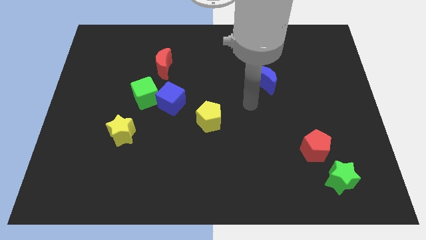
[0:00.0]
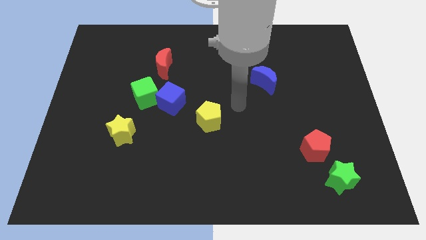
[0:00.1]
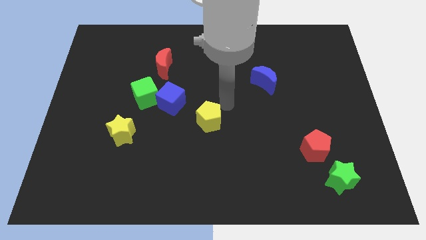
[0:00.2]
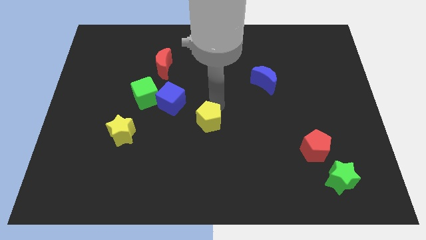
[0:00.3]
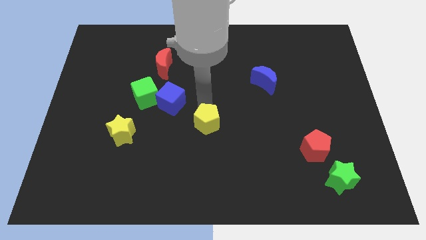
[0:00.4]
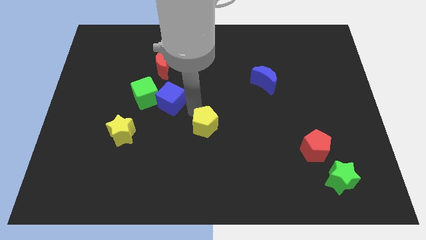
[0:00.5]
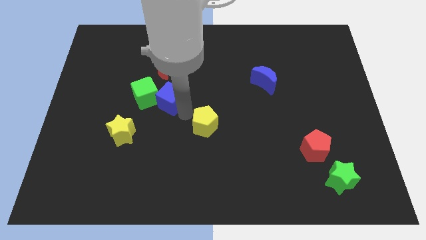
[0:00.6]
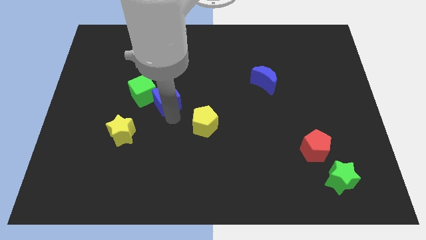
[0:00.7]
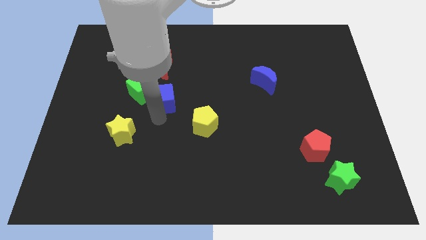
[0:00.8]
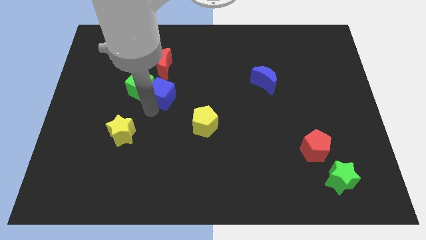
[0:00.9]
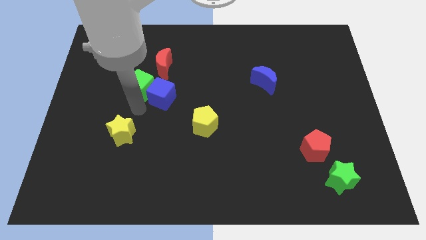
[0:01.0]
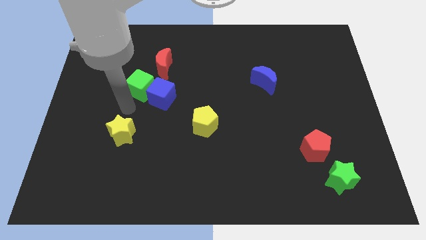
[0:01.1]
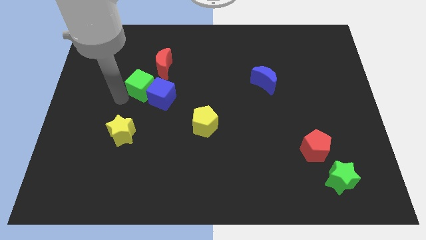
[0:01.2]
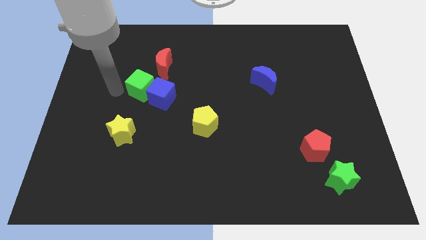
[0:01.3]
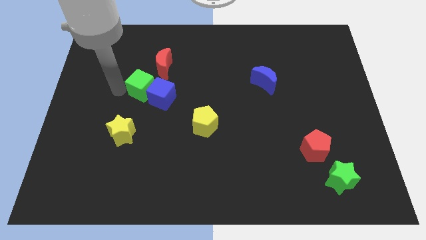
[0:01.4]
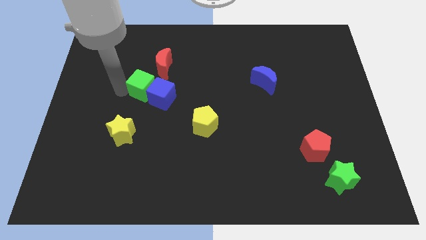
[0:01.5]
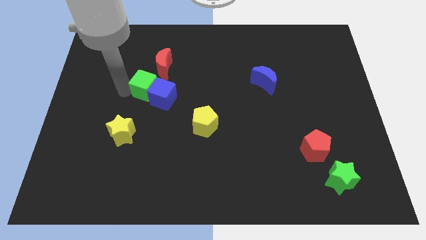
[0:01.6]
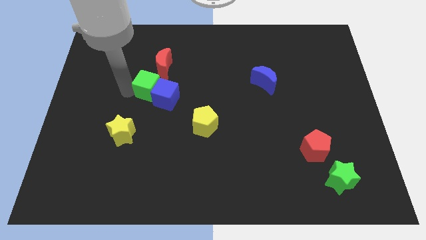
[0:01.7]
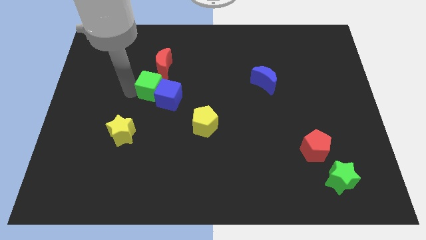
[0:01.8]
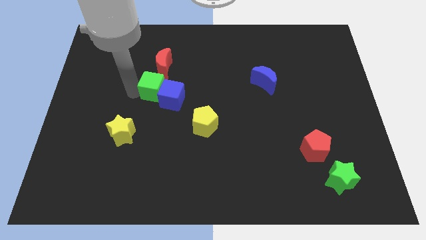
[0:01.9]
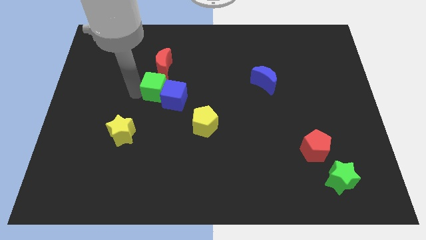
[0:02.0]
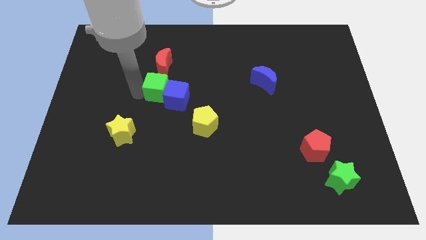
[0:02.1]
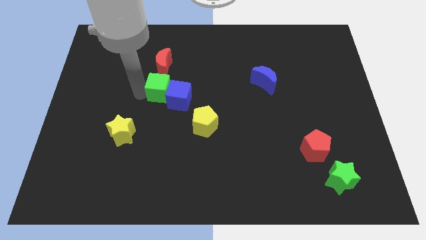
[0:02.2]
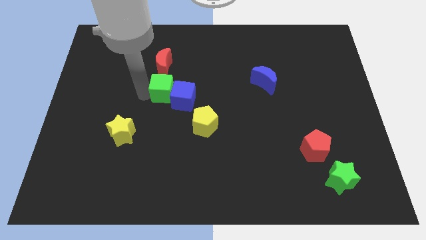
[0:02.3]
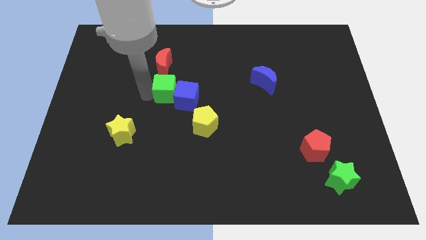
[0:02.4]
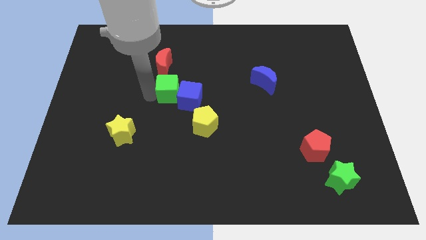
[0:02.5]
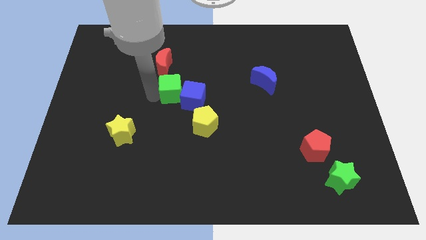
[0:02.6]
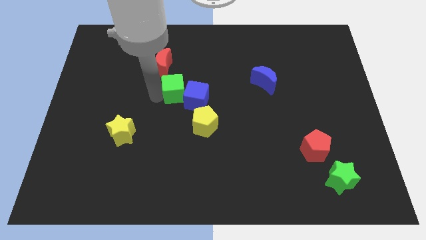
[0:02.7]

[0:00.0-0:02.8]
push the green cube right slightly

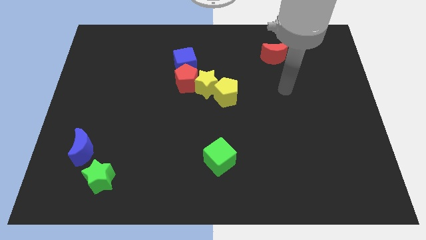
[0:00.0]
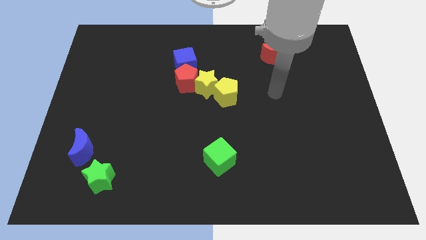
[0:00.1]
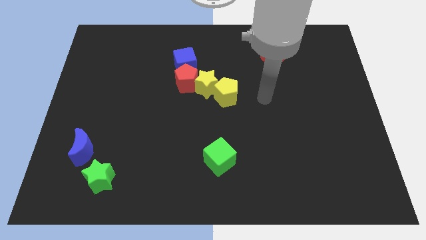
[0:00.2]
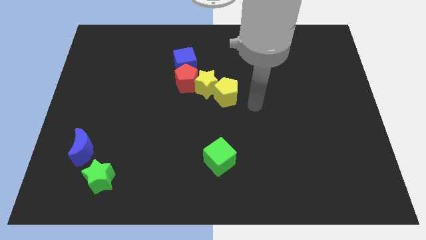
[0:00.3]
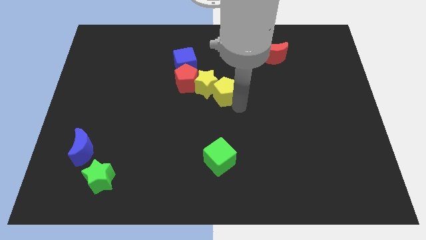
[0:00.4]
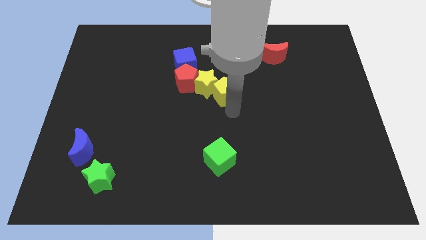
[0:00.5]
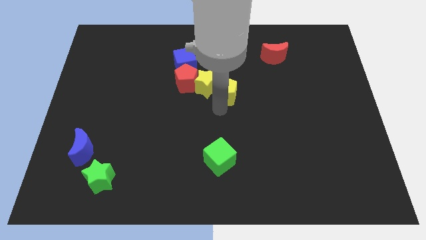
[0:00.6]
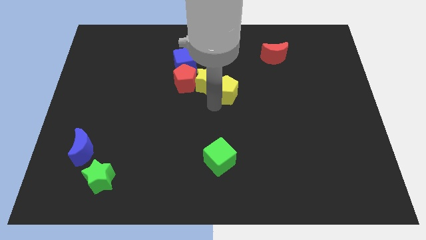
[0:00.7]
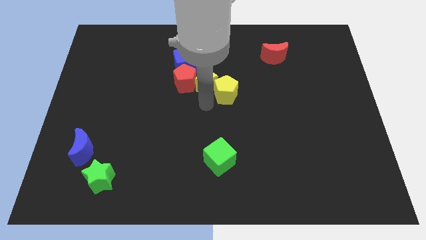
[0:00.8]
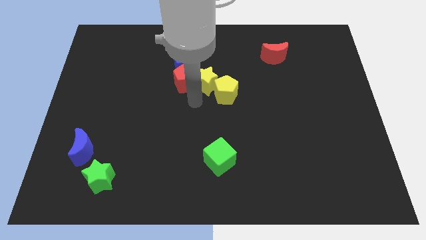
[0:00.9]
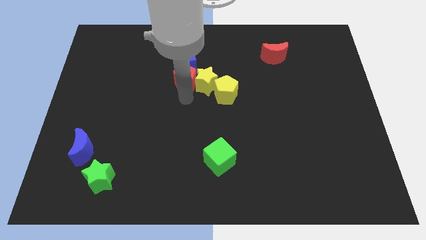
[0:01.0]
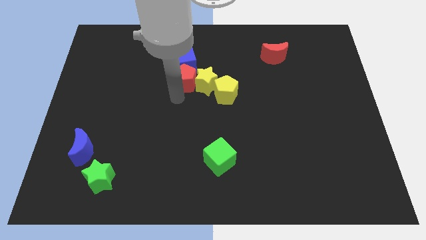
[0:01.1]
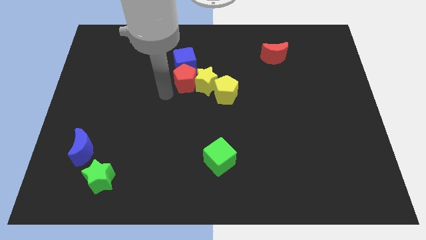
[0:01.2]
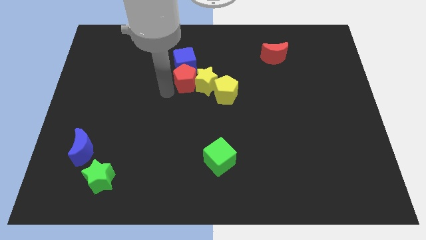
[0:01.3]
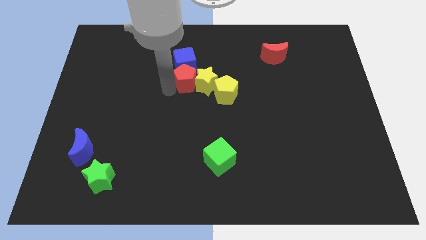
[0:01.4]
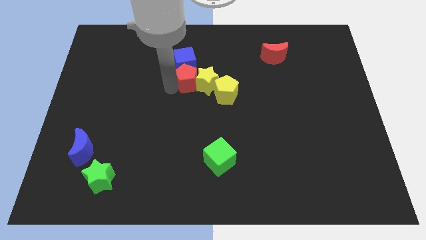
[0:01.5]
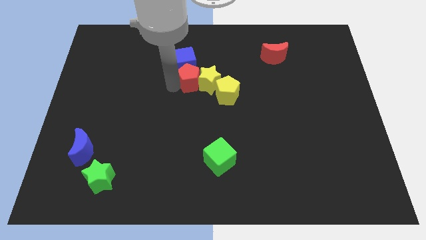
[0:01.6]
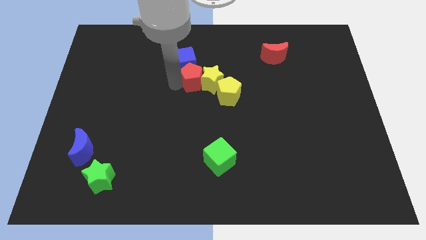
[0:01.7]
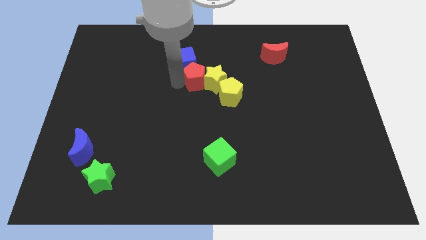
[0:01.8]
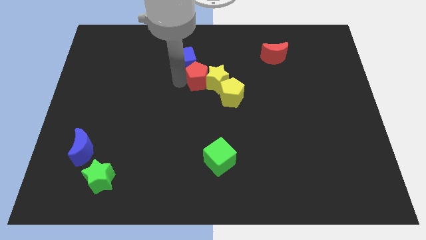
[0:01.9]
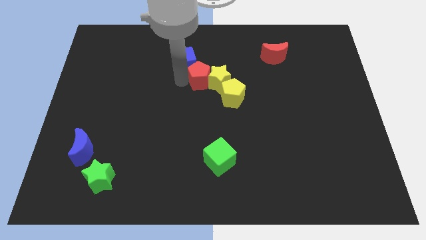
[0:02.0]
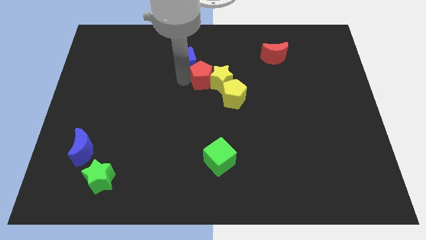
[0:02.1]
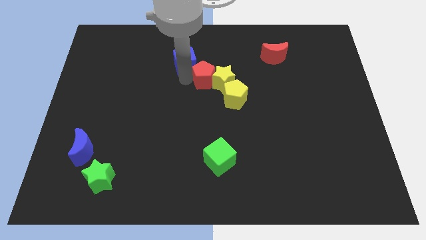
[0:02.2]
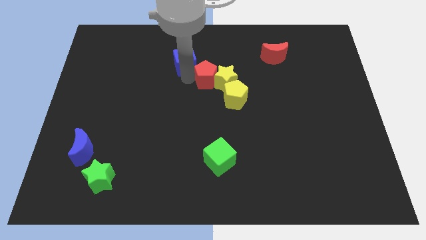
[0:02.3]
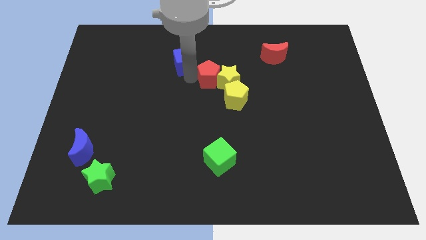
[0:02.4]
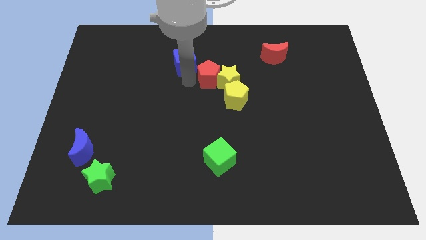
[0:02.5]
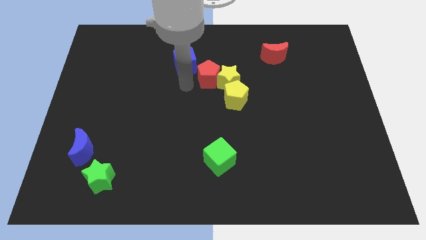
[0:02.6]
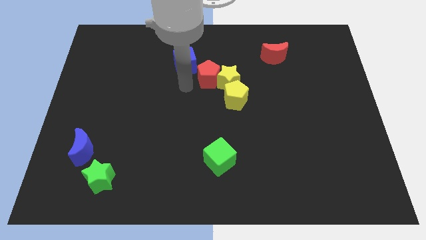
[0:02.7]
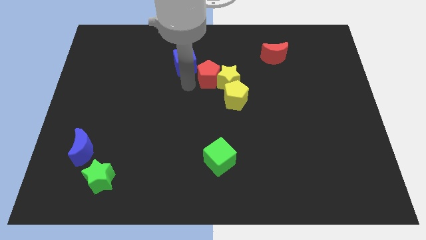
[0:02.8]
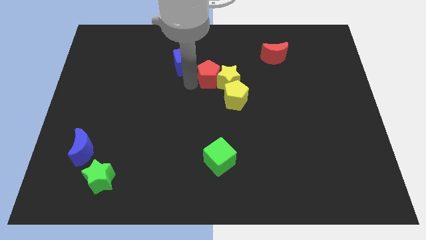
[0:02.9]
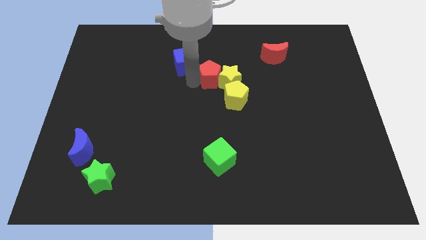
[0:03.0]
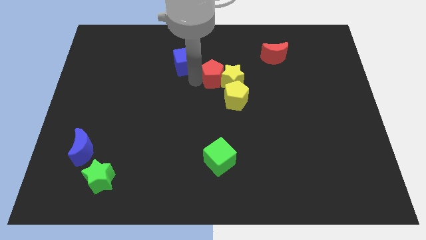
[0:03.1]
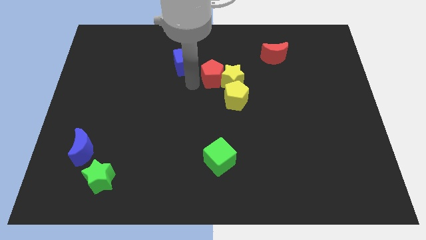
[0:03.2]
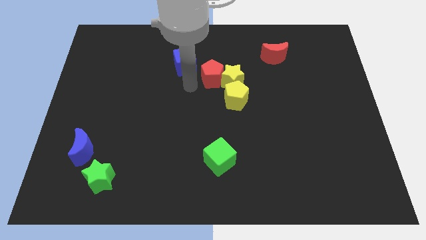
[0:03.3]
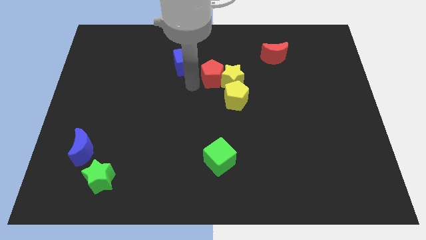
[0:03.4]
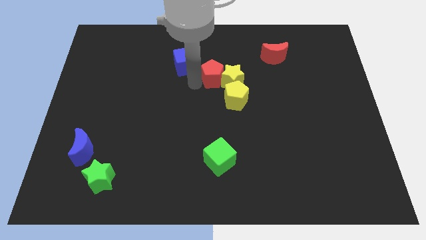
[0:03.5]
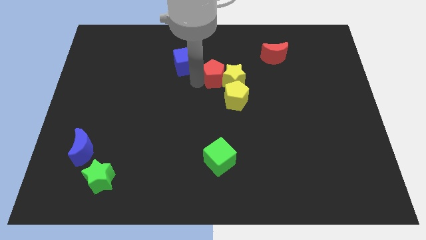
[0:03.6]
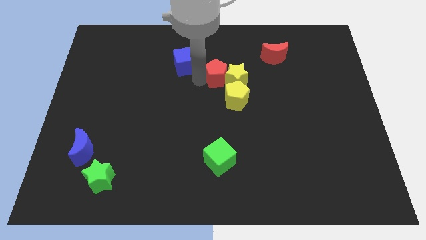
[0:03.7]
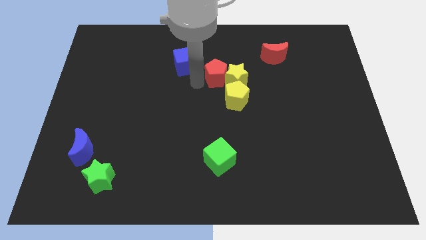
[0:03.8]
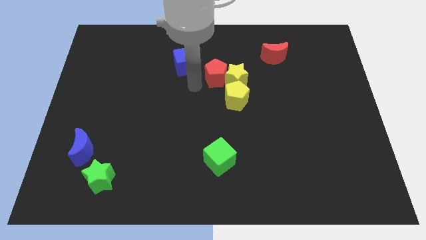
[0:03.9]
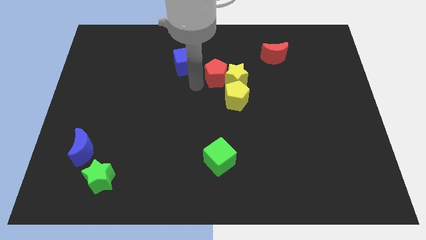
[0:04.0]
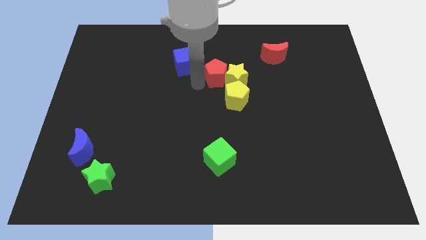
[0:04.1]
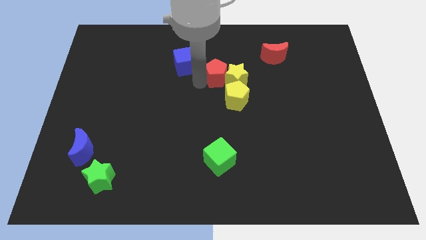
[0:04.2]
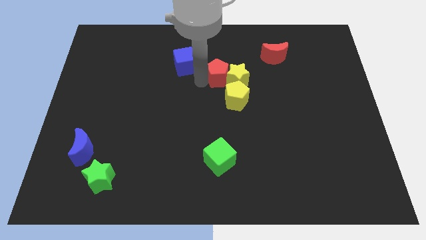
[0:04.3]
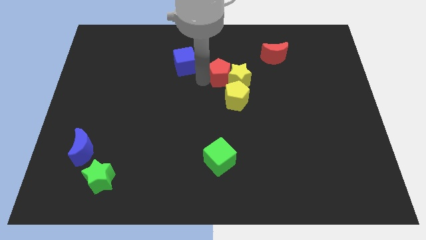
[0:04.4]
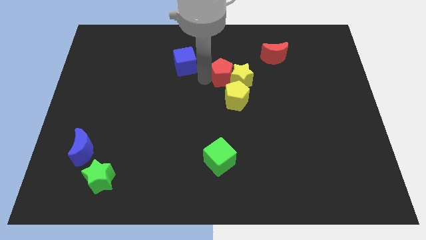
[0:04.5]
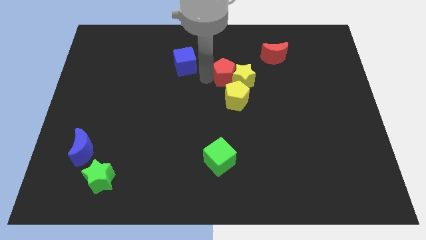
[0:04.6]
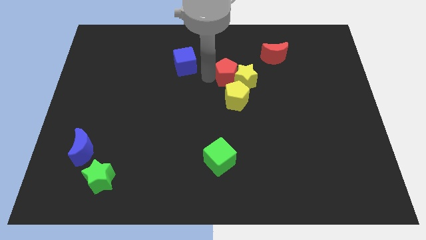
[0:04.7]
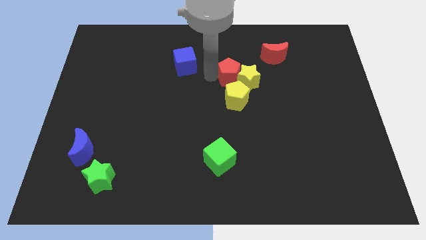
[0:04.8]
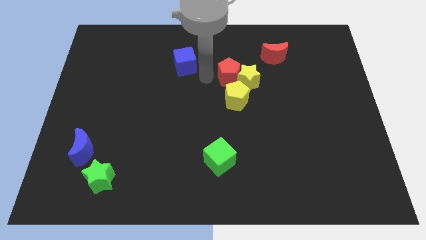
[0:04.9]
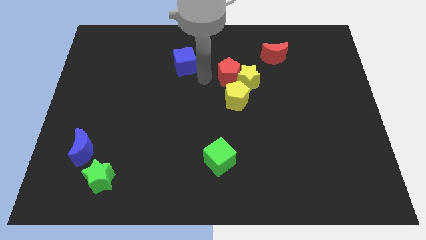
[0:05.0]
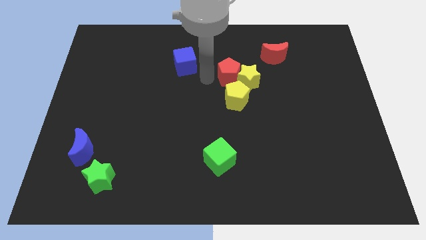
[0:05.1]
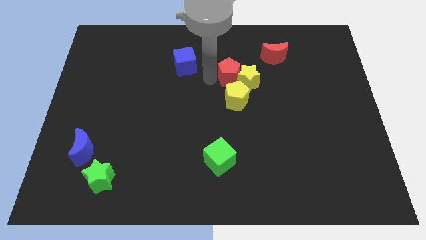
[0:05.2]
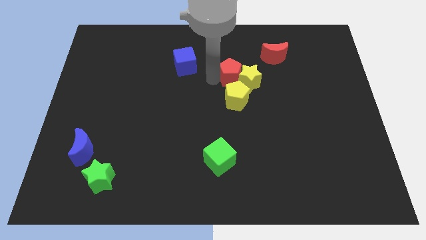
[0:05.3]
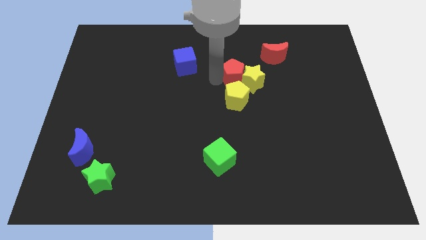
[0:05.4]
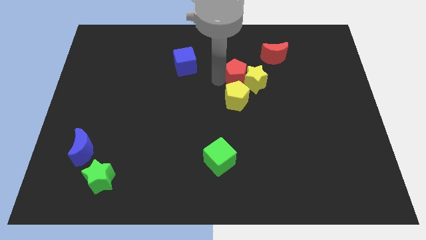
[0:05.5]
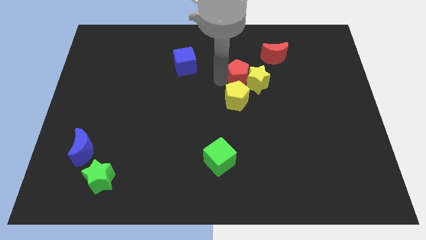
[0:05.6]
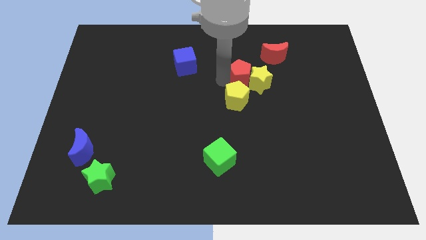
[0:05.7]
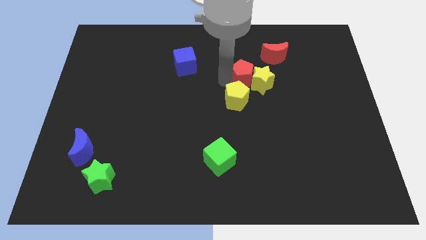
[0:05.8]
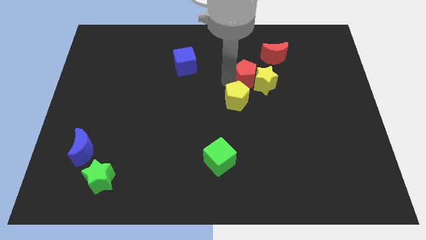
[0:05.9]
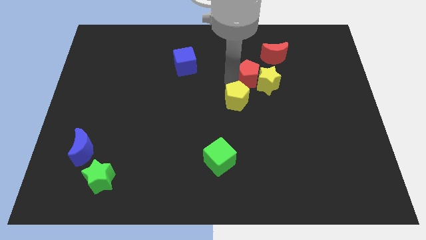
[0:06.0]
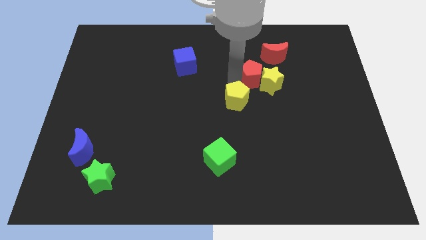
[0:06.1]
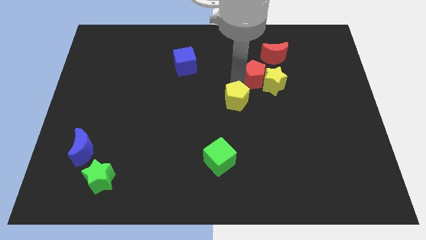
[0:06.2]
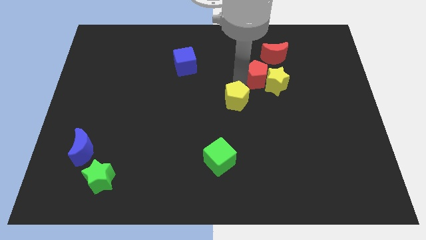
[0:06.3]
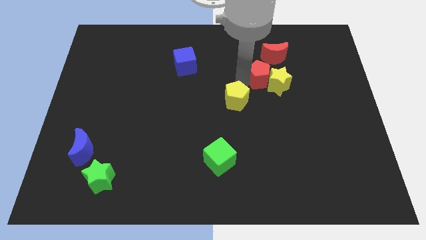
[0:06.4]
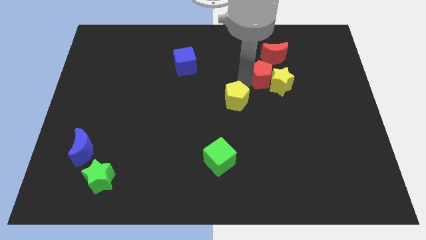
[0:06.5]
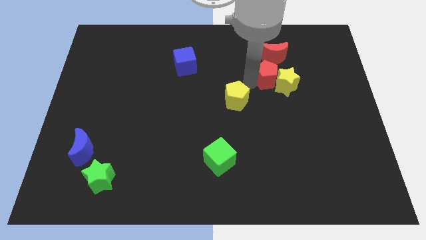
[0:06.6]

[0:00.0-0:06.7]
slide the red pentagon to the right
